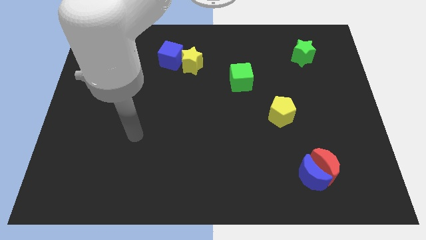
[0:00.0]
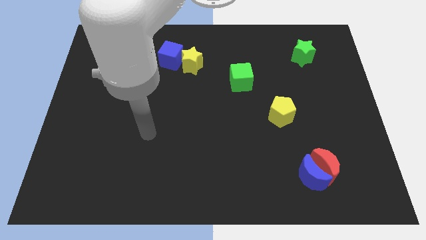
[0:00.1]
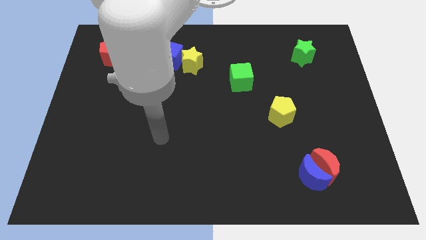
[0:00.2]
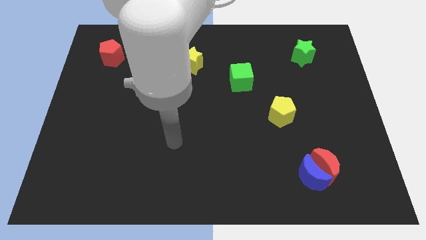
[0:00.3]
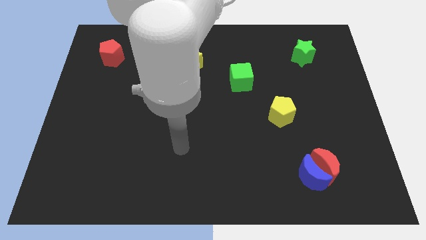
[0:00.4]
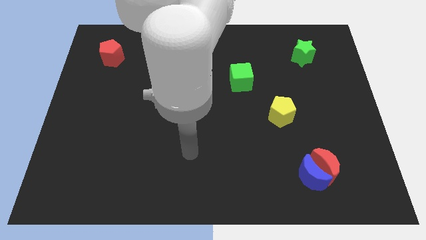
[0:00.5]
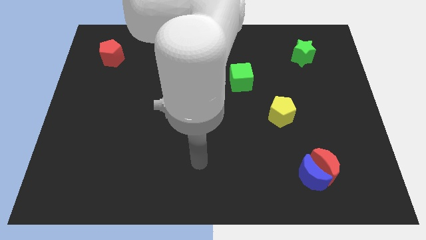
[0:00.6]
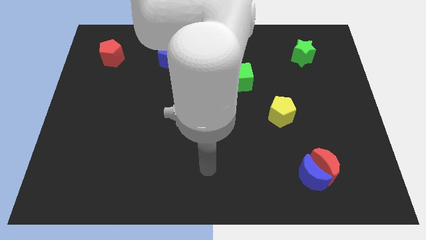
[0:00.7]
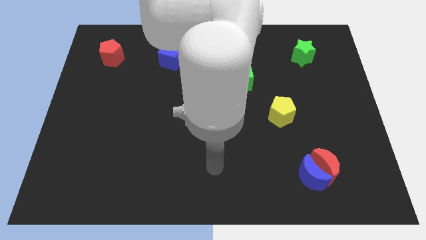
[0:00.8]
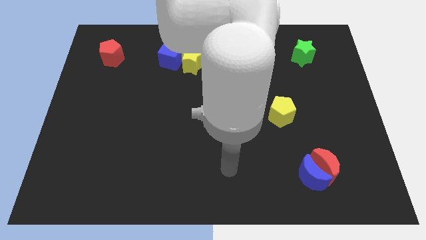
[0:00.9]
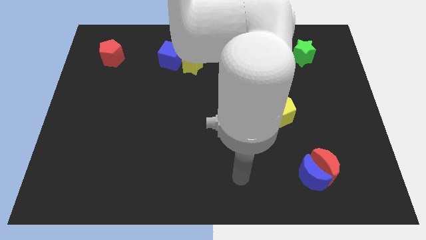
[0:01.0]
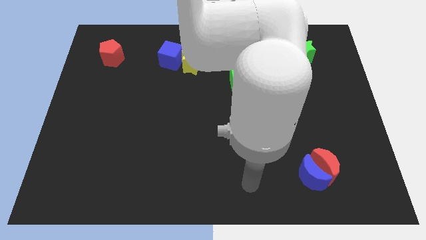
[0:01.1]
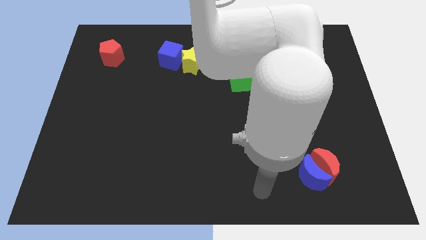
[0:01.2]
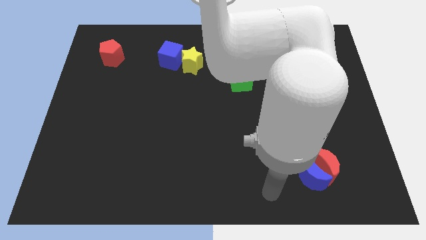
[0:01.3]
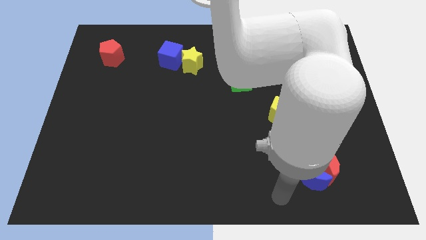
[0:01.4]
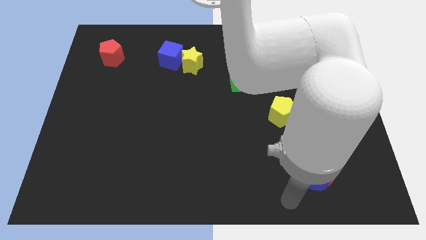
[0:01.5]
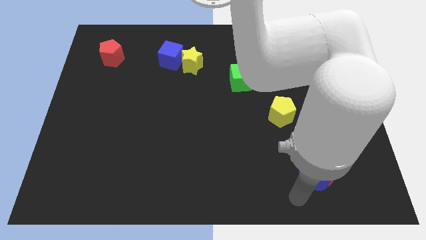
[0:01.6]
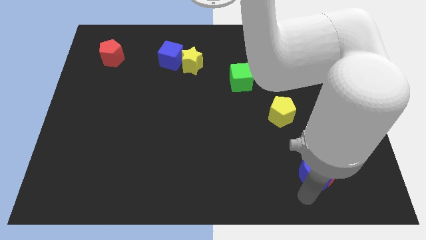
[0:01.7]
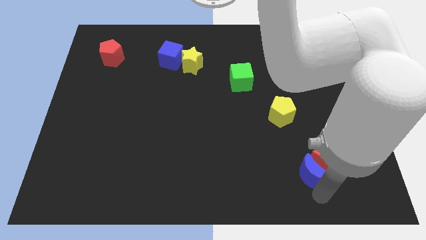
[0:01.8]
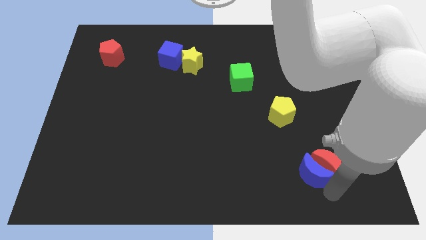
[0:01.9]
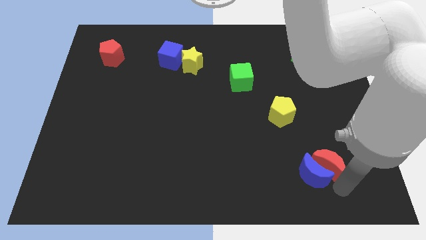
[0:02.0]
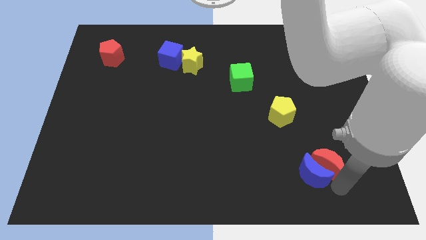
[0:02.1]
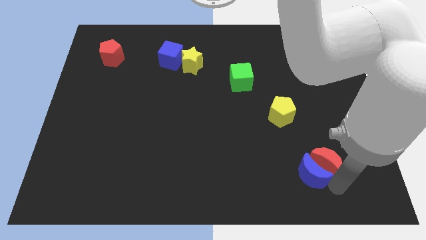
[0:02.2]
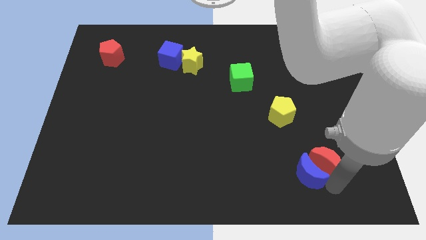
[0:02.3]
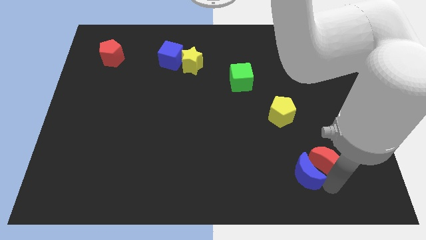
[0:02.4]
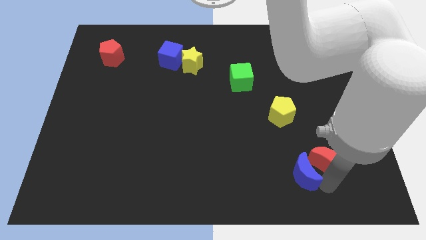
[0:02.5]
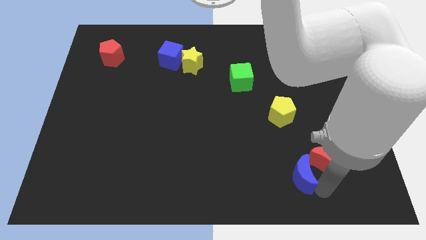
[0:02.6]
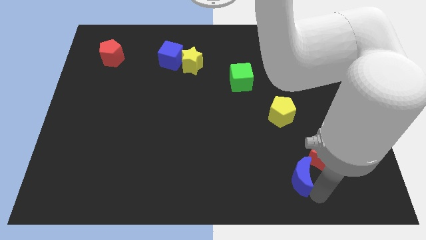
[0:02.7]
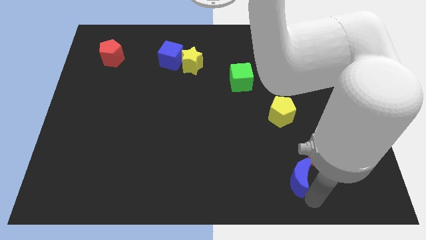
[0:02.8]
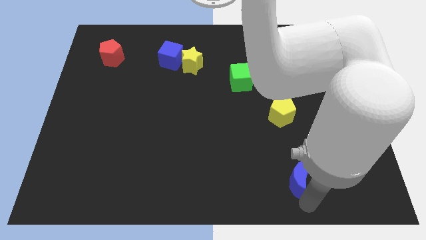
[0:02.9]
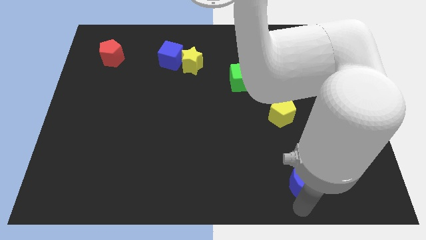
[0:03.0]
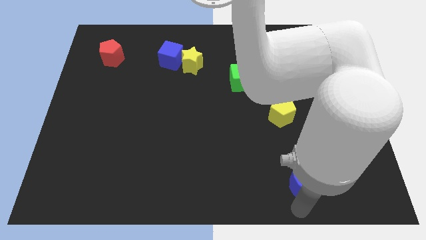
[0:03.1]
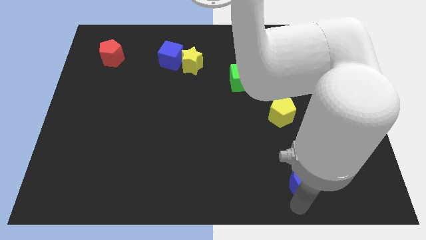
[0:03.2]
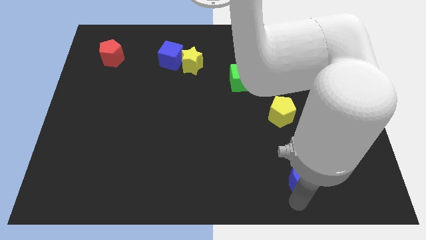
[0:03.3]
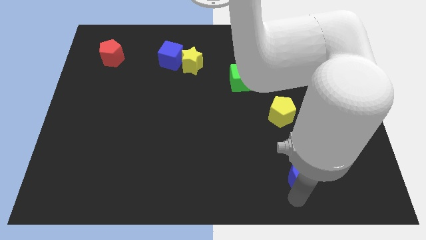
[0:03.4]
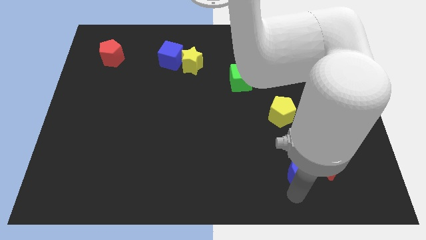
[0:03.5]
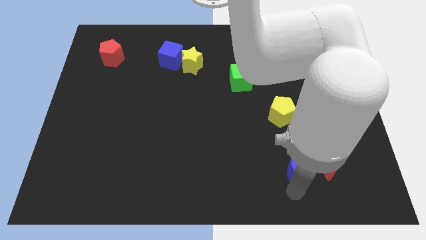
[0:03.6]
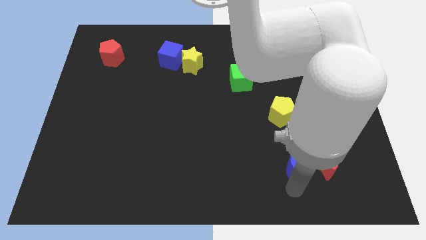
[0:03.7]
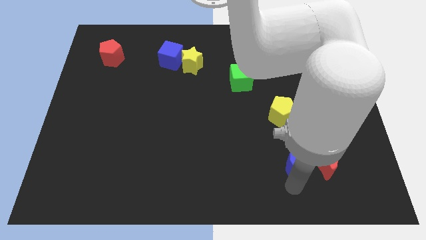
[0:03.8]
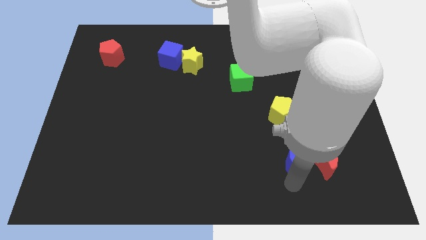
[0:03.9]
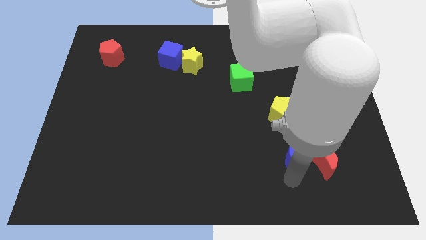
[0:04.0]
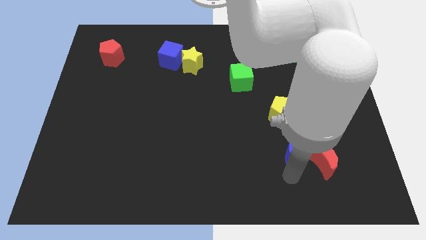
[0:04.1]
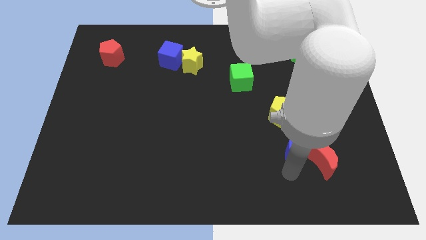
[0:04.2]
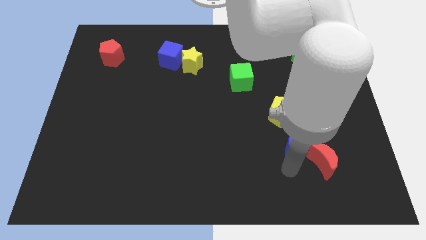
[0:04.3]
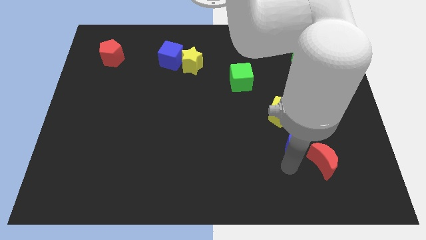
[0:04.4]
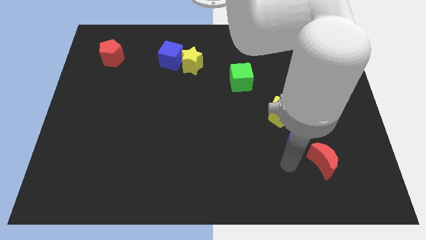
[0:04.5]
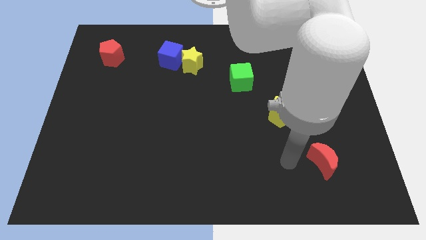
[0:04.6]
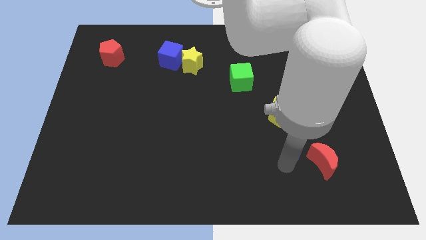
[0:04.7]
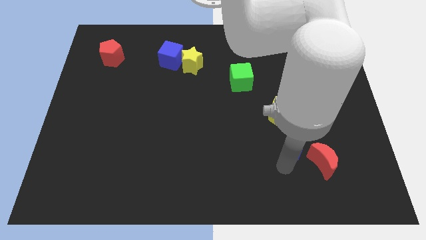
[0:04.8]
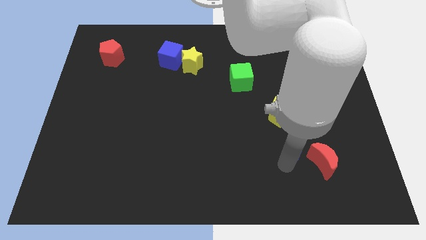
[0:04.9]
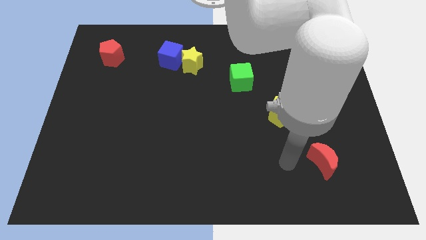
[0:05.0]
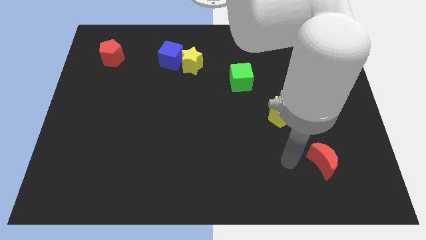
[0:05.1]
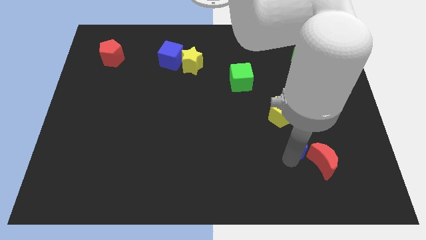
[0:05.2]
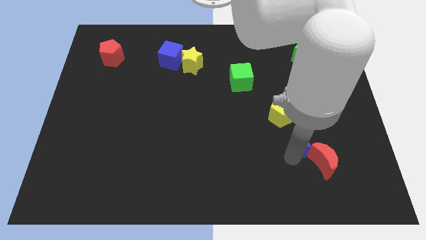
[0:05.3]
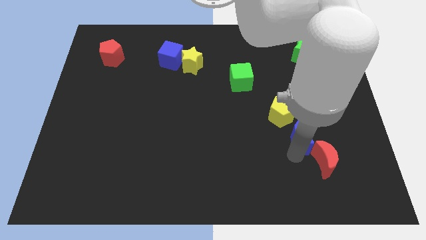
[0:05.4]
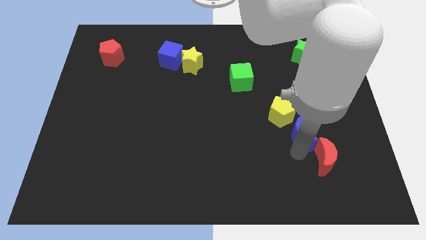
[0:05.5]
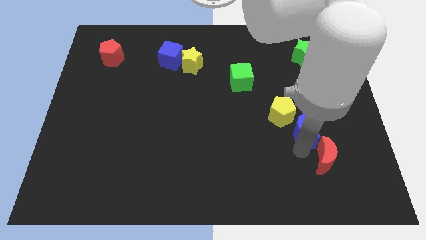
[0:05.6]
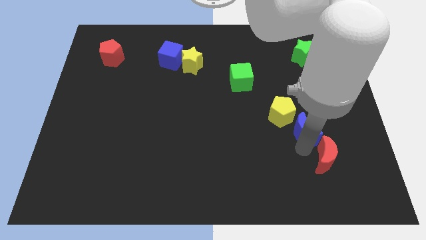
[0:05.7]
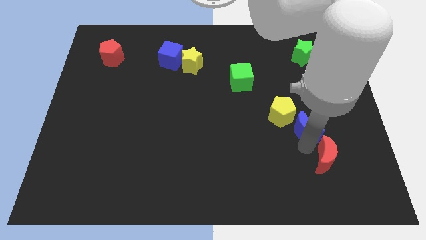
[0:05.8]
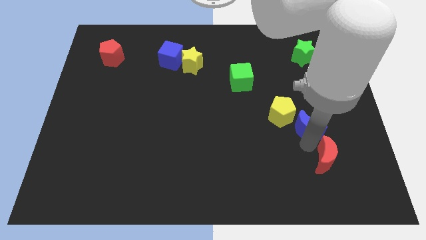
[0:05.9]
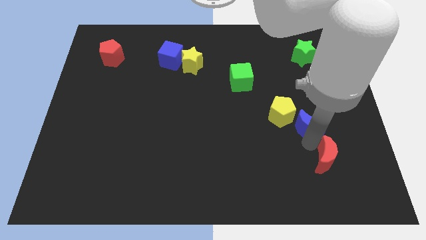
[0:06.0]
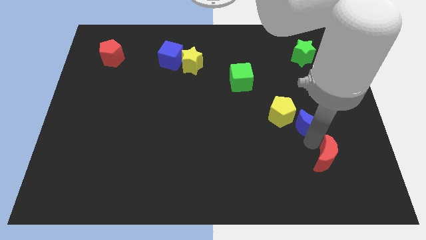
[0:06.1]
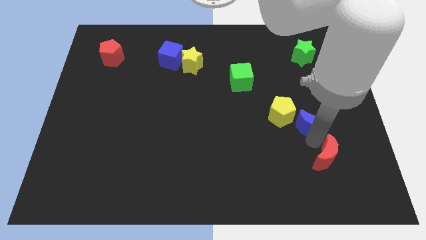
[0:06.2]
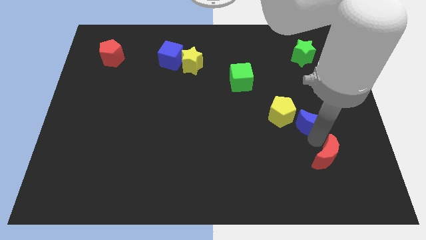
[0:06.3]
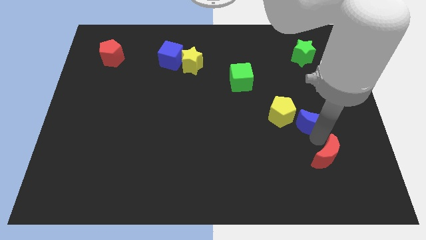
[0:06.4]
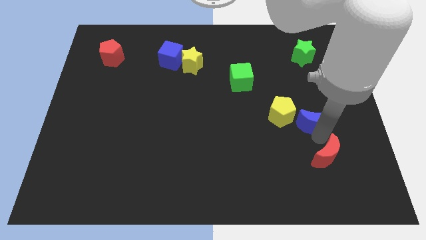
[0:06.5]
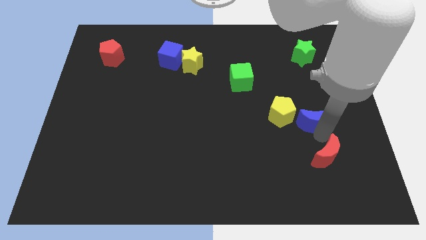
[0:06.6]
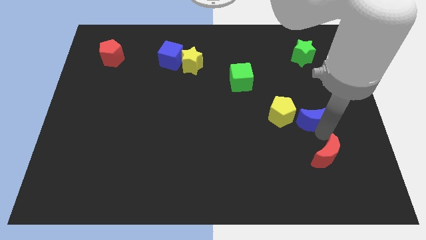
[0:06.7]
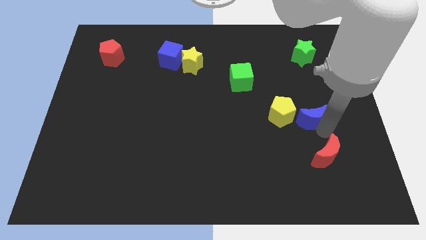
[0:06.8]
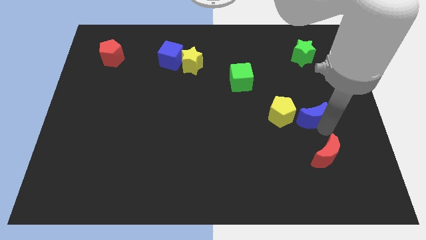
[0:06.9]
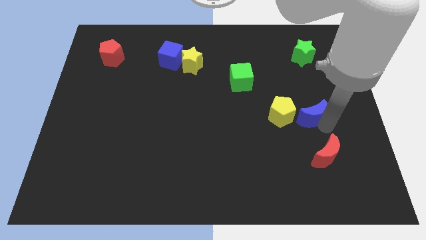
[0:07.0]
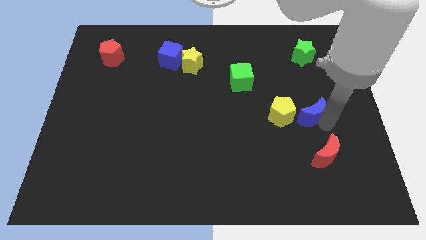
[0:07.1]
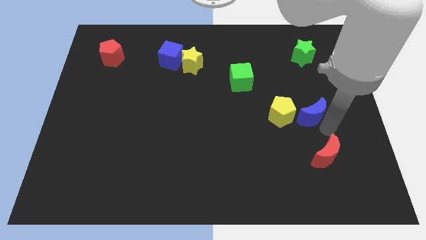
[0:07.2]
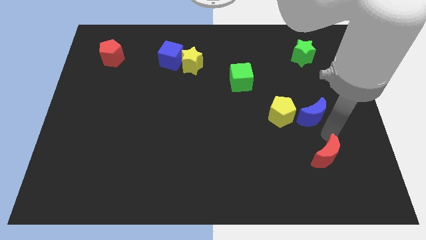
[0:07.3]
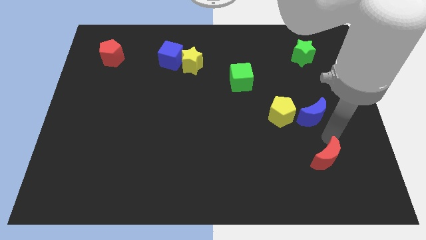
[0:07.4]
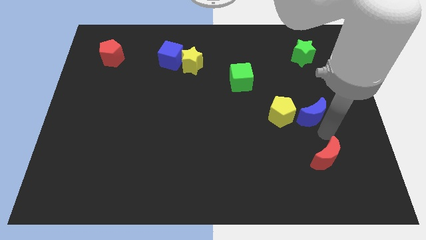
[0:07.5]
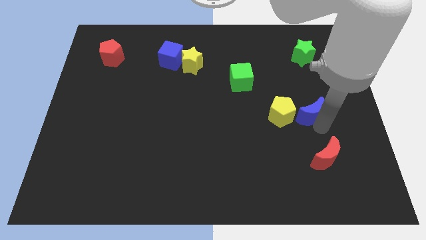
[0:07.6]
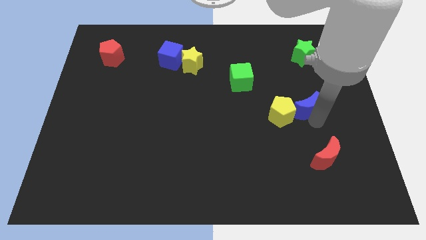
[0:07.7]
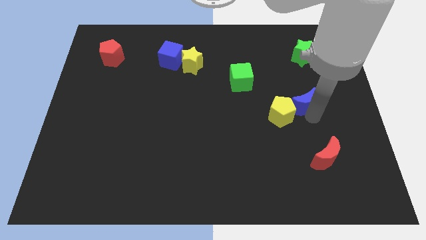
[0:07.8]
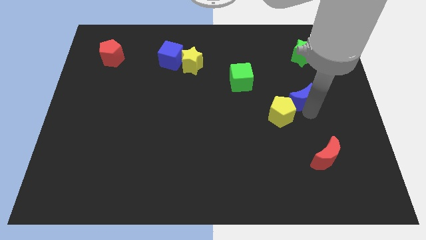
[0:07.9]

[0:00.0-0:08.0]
slide the blue moon up

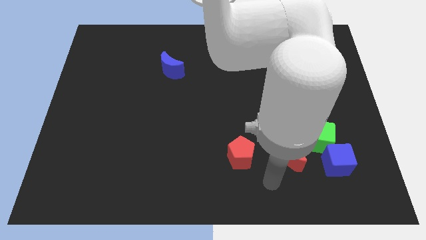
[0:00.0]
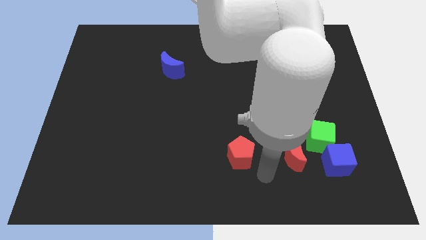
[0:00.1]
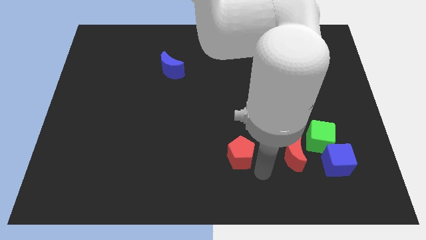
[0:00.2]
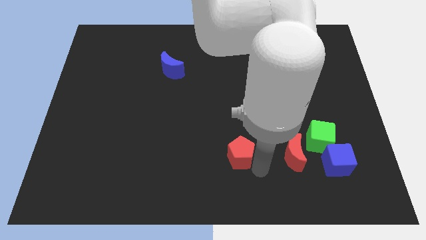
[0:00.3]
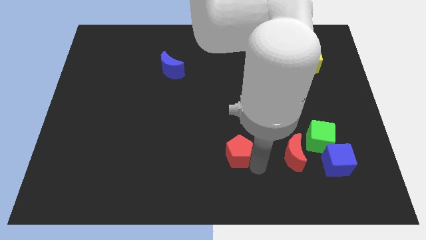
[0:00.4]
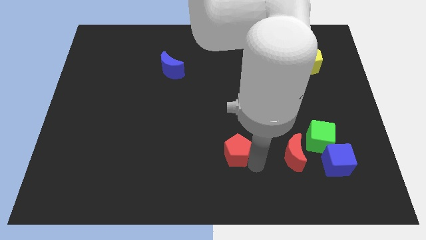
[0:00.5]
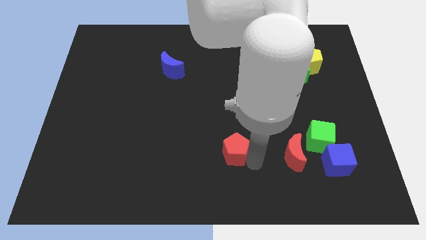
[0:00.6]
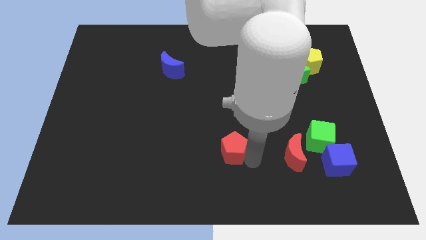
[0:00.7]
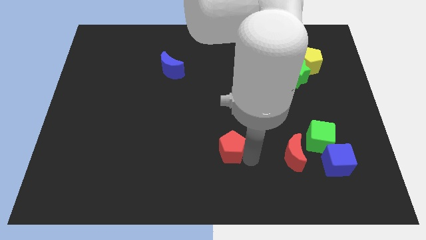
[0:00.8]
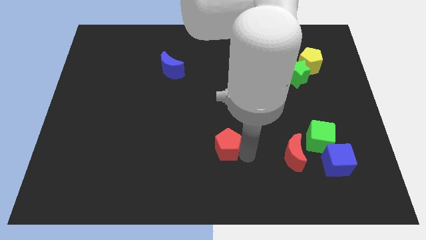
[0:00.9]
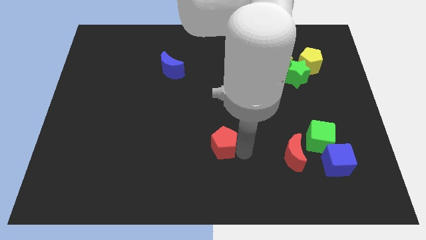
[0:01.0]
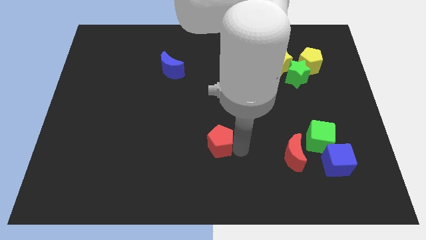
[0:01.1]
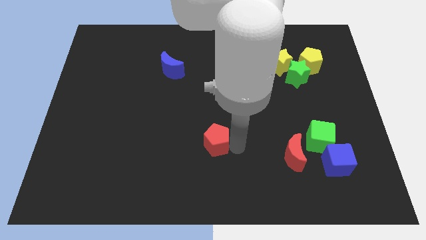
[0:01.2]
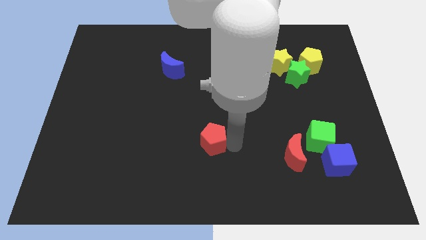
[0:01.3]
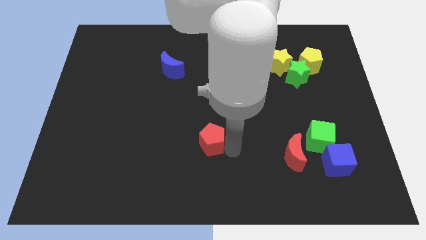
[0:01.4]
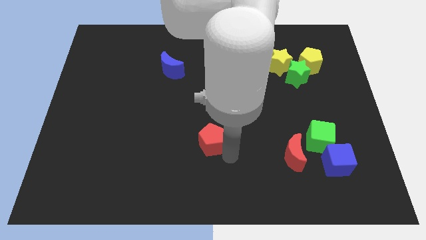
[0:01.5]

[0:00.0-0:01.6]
push the red pentagon upwards and then left a little bit
